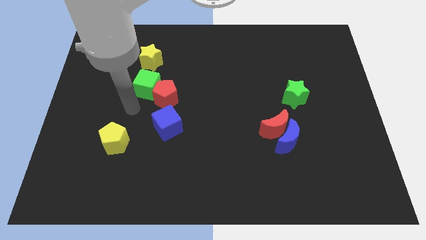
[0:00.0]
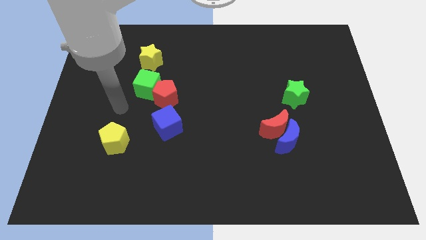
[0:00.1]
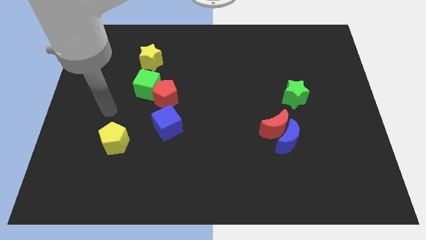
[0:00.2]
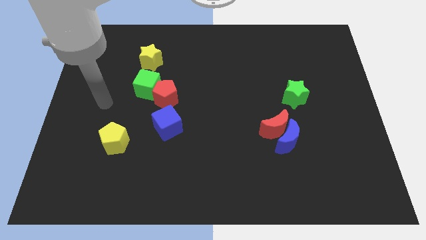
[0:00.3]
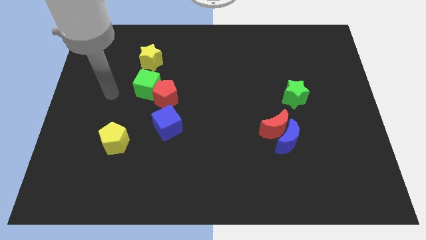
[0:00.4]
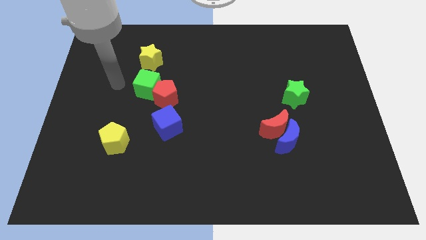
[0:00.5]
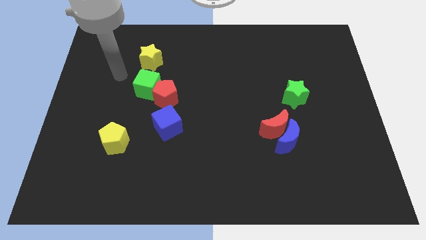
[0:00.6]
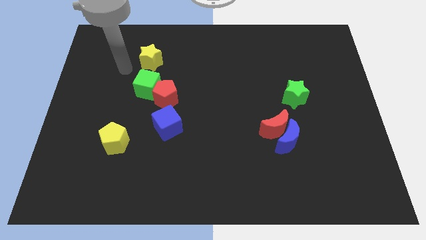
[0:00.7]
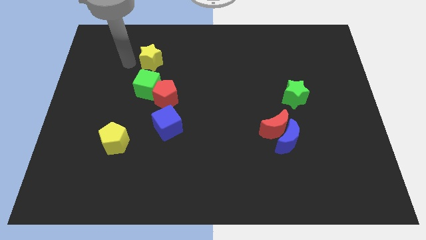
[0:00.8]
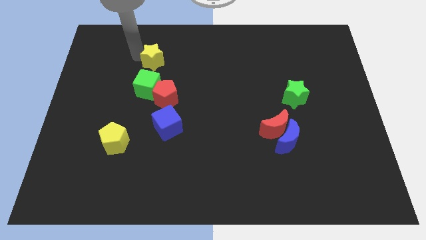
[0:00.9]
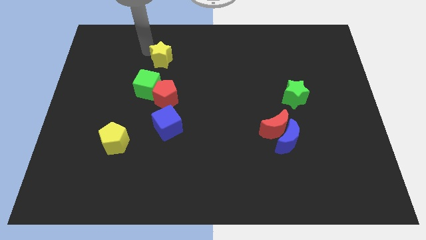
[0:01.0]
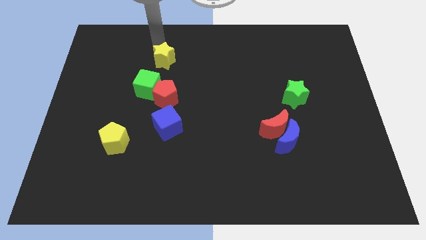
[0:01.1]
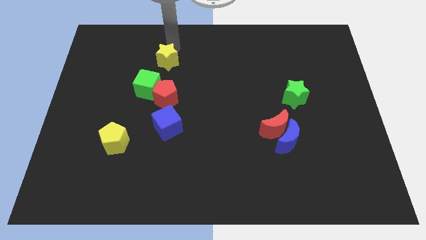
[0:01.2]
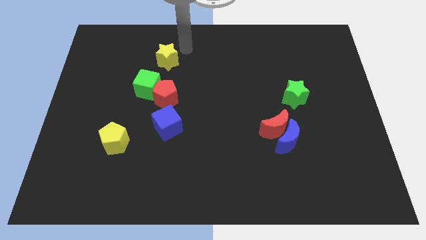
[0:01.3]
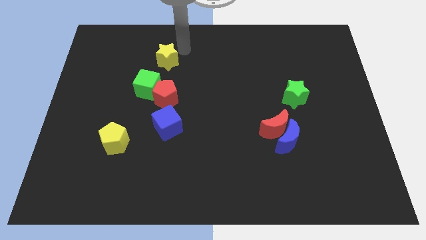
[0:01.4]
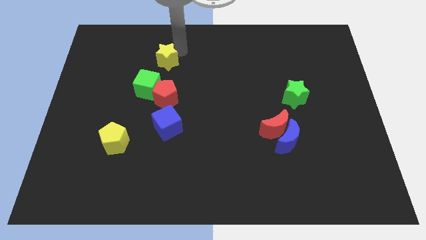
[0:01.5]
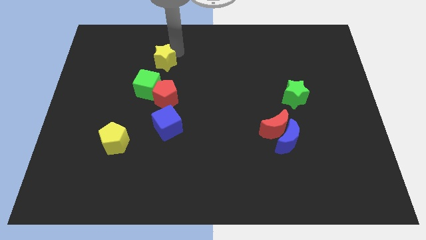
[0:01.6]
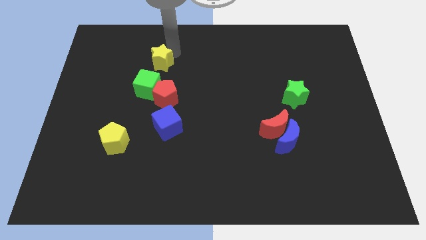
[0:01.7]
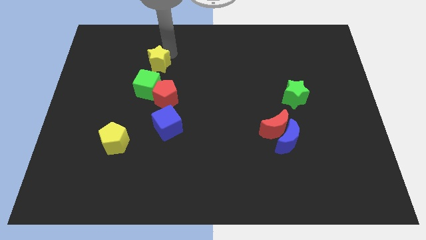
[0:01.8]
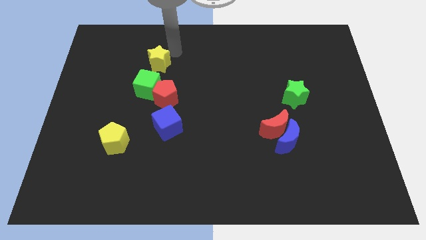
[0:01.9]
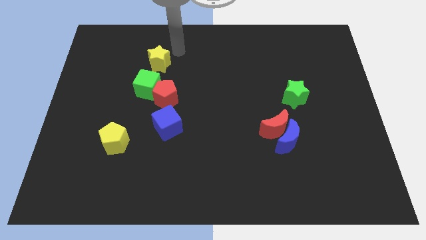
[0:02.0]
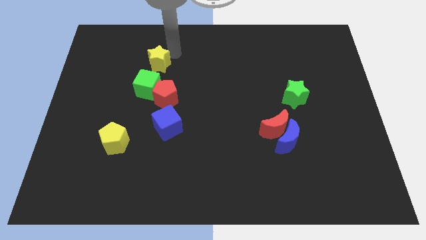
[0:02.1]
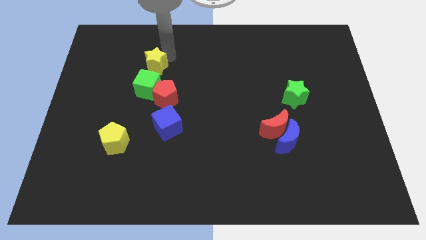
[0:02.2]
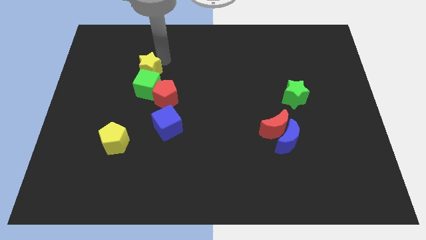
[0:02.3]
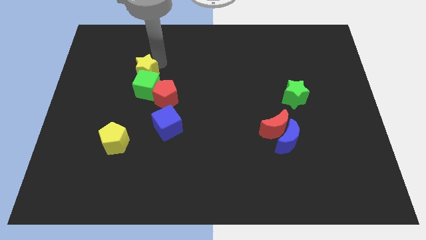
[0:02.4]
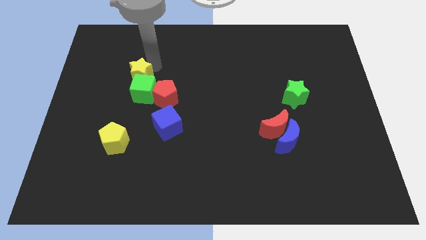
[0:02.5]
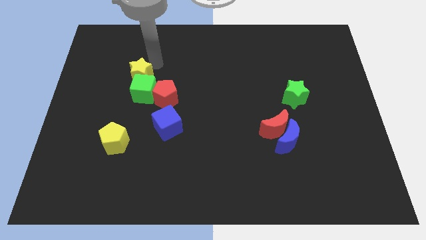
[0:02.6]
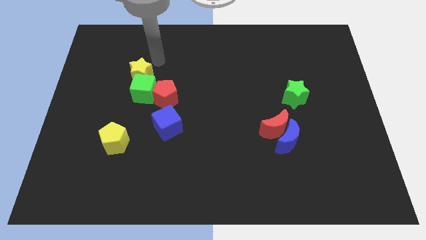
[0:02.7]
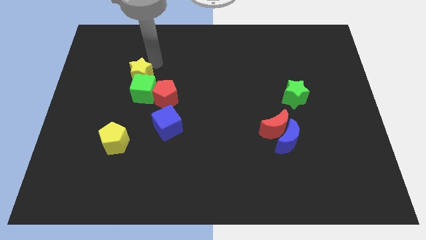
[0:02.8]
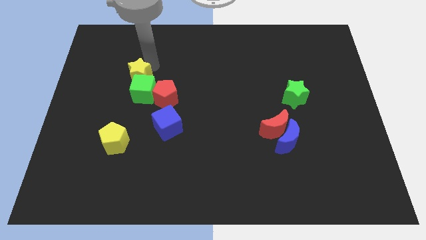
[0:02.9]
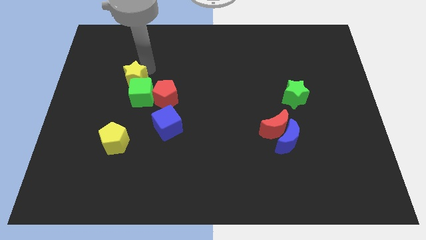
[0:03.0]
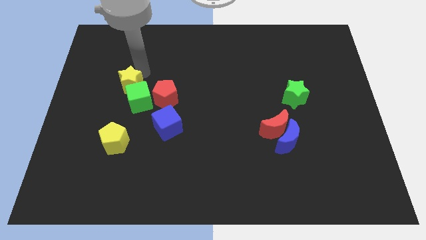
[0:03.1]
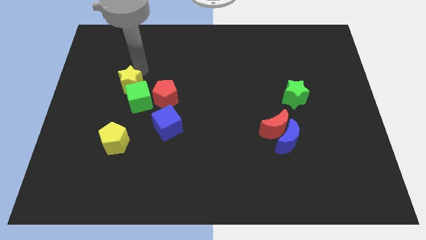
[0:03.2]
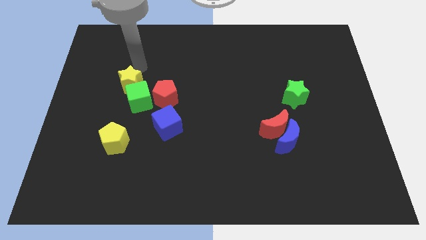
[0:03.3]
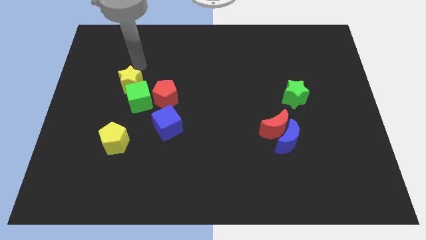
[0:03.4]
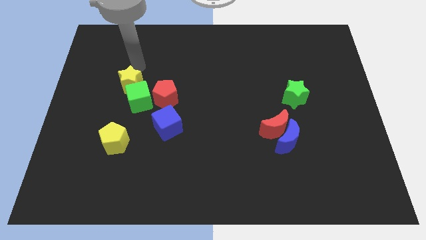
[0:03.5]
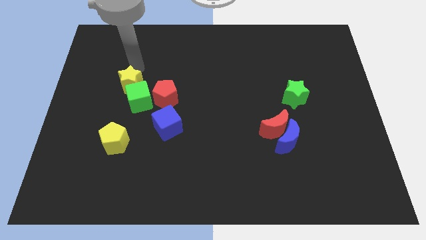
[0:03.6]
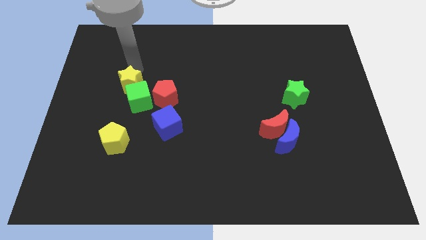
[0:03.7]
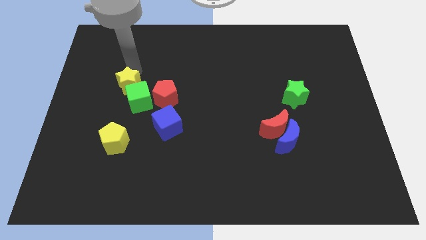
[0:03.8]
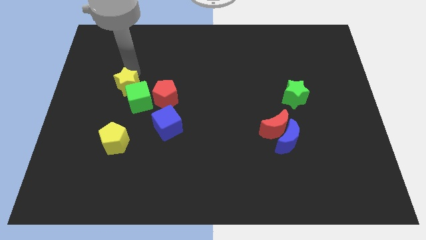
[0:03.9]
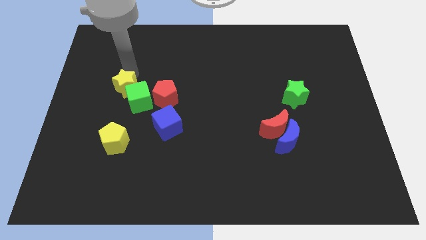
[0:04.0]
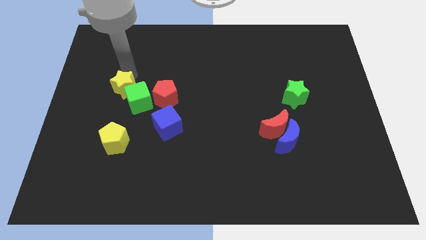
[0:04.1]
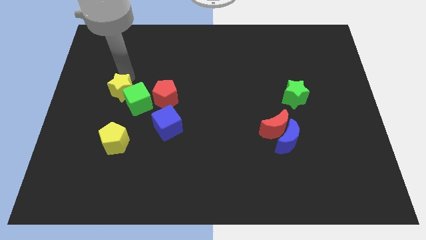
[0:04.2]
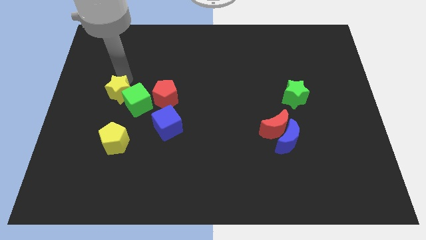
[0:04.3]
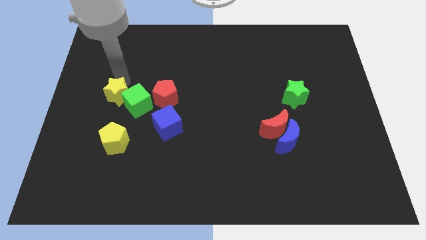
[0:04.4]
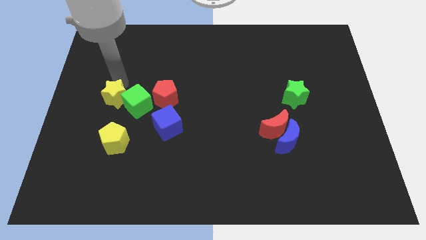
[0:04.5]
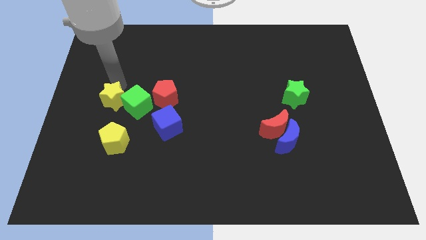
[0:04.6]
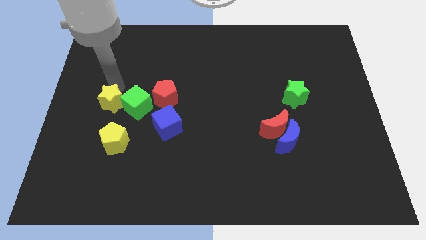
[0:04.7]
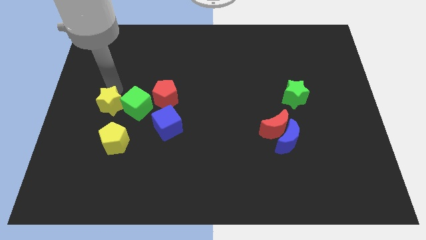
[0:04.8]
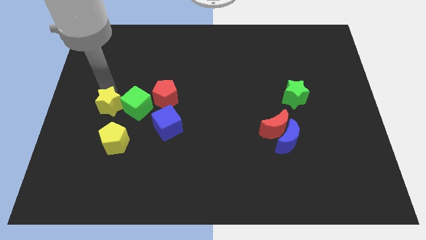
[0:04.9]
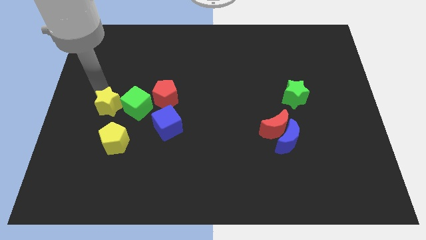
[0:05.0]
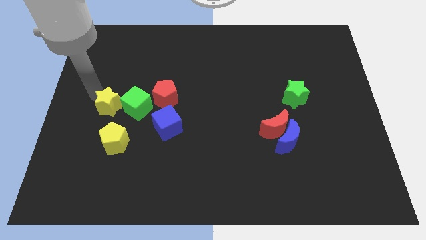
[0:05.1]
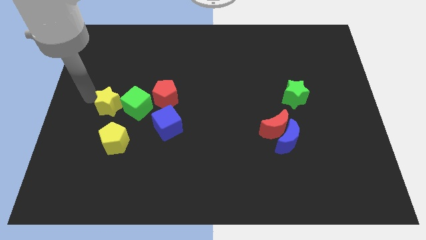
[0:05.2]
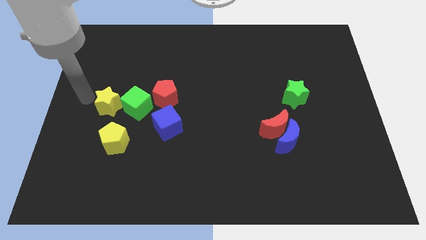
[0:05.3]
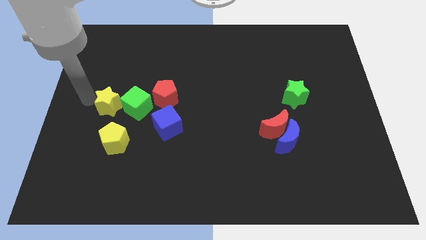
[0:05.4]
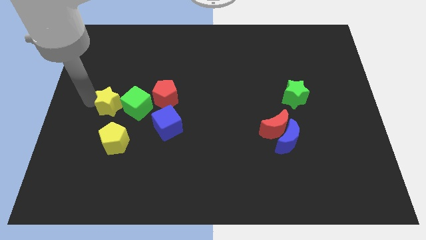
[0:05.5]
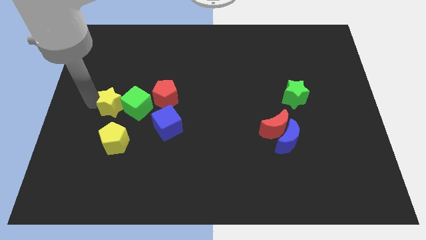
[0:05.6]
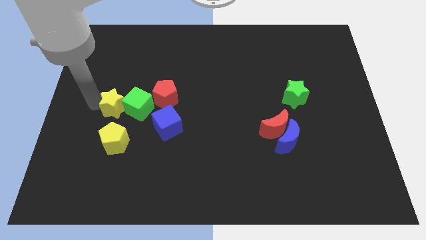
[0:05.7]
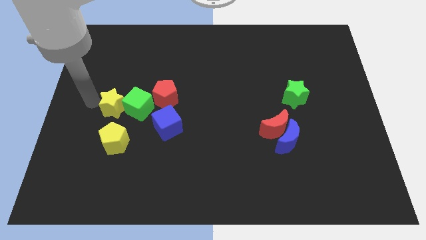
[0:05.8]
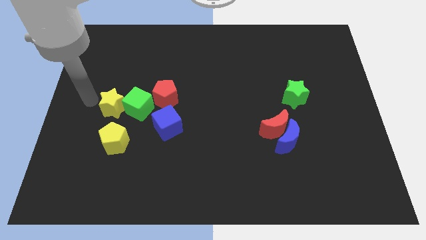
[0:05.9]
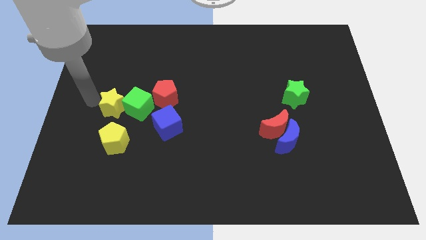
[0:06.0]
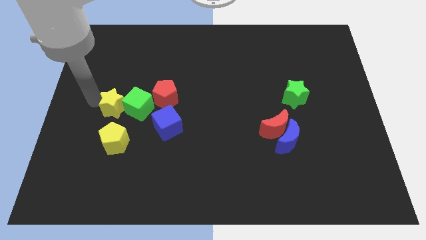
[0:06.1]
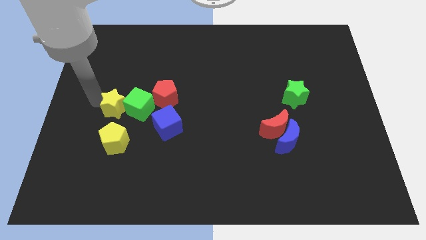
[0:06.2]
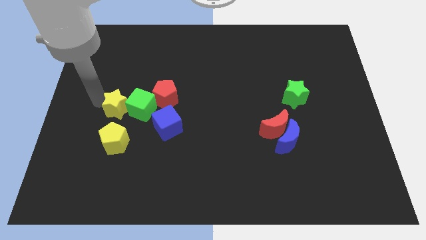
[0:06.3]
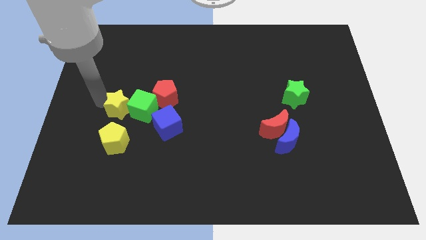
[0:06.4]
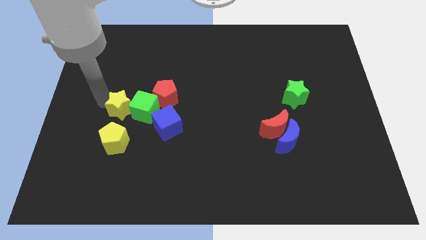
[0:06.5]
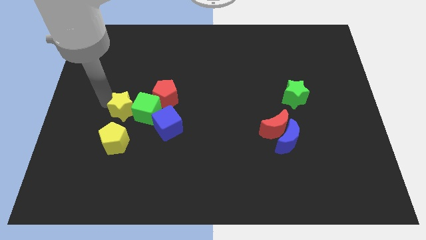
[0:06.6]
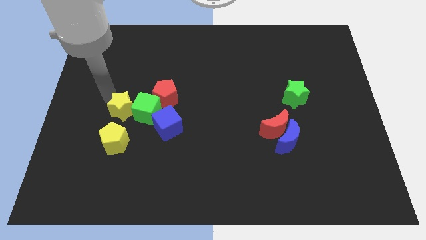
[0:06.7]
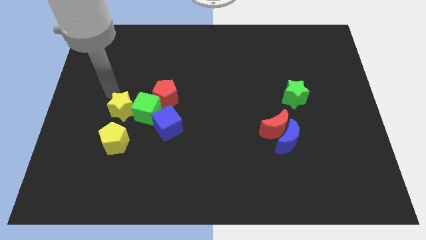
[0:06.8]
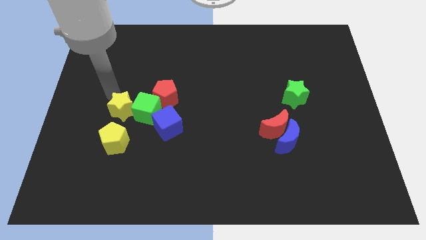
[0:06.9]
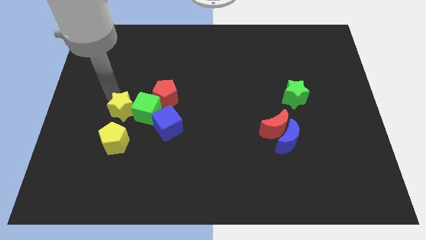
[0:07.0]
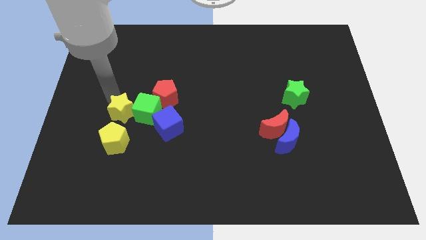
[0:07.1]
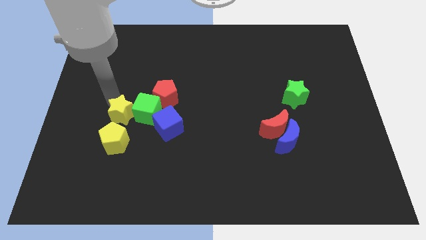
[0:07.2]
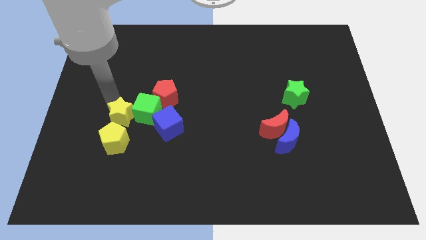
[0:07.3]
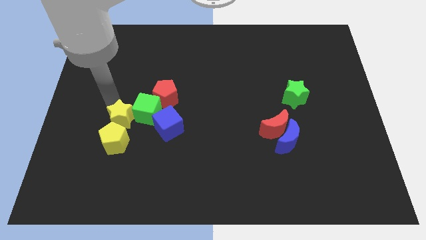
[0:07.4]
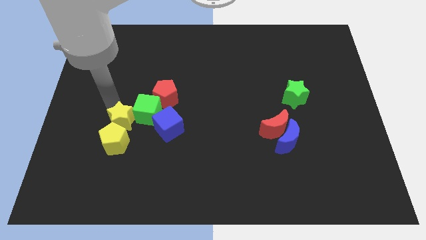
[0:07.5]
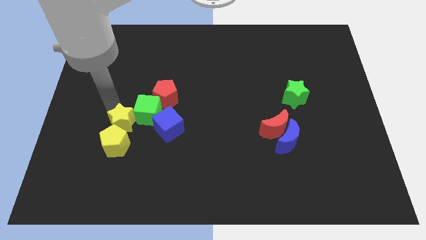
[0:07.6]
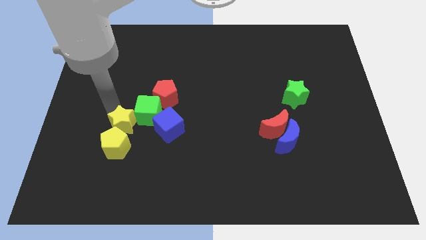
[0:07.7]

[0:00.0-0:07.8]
slide the yellow star down

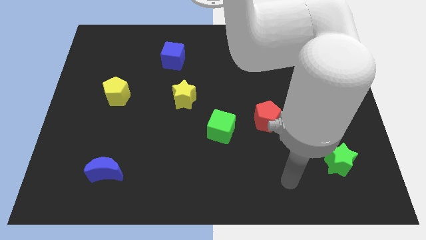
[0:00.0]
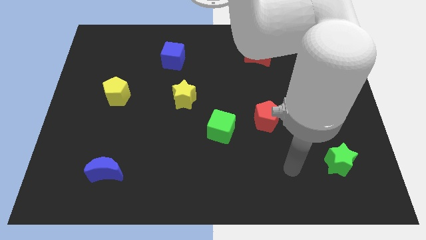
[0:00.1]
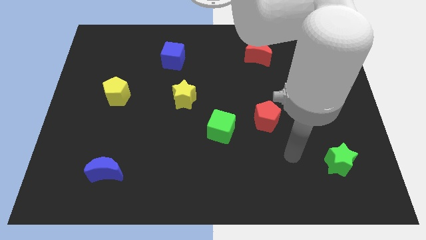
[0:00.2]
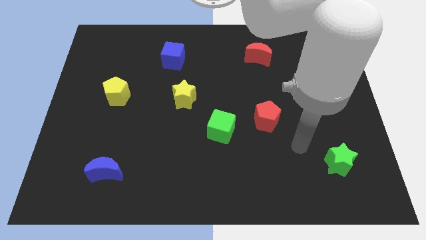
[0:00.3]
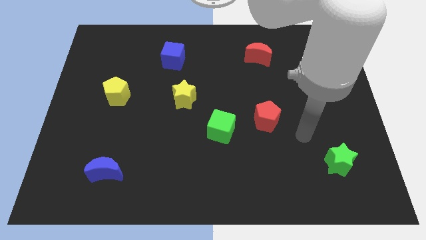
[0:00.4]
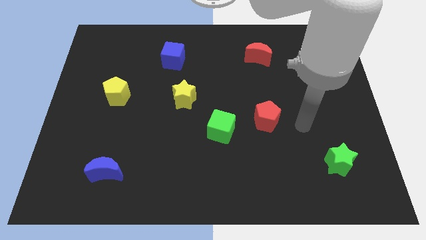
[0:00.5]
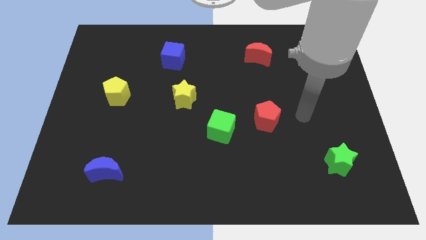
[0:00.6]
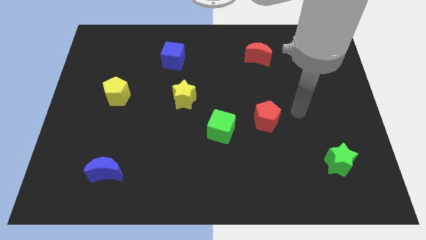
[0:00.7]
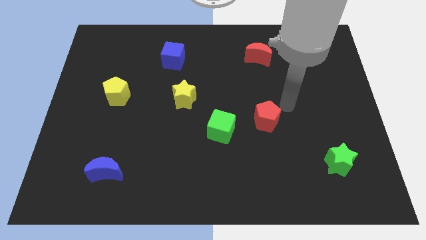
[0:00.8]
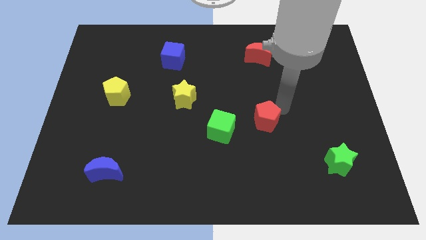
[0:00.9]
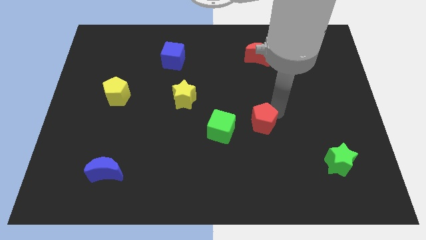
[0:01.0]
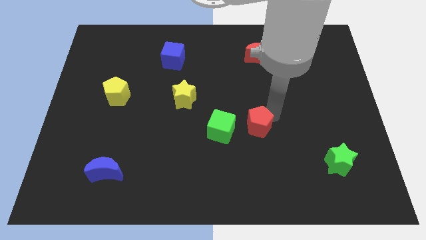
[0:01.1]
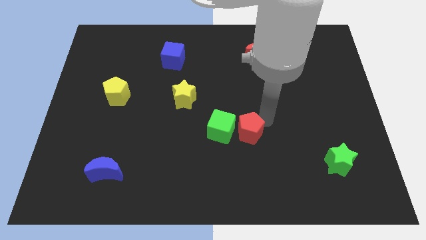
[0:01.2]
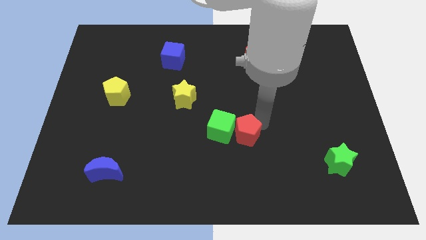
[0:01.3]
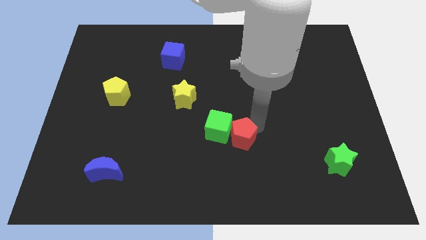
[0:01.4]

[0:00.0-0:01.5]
push the red pentagon down and to the left a bit
